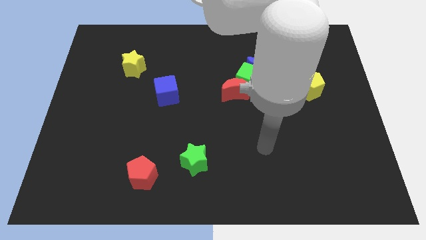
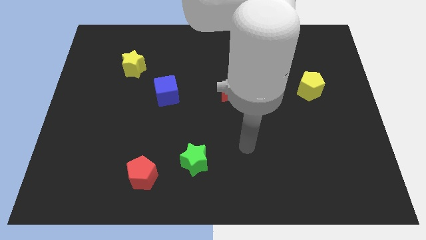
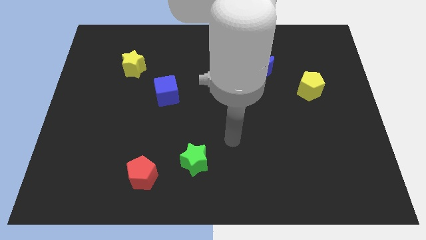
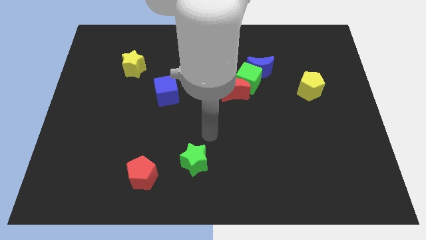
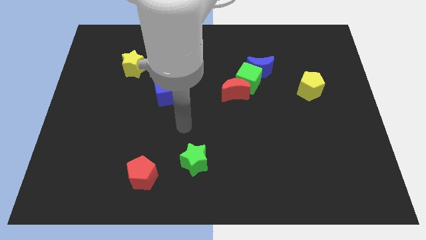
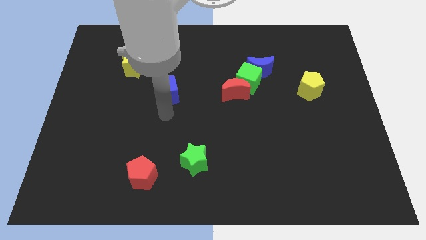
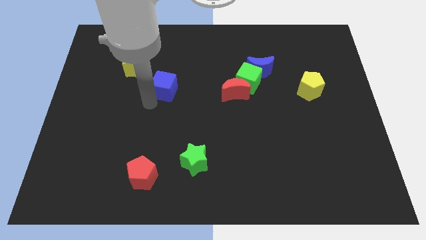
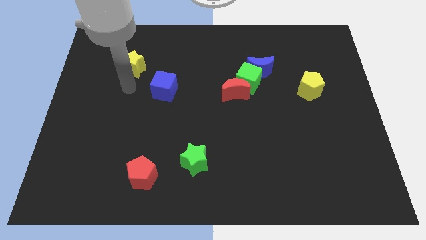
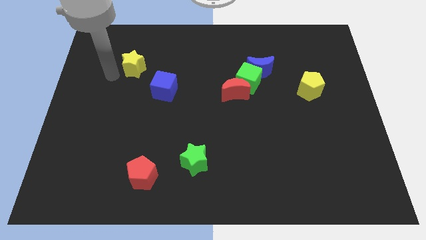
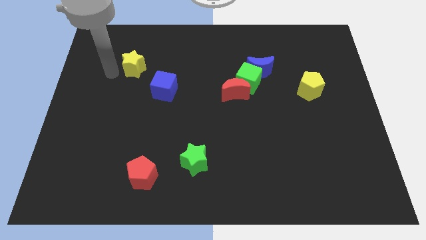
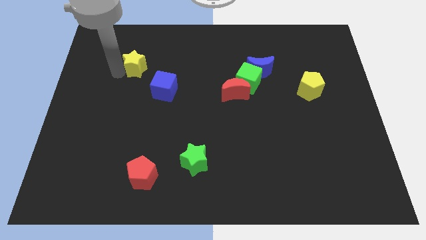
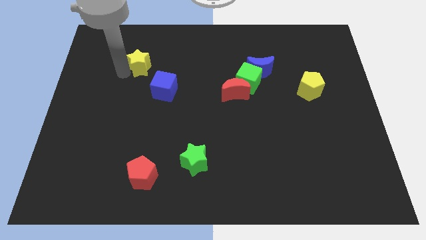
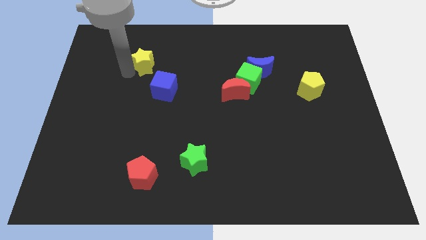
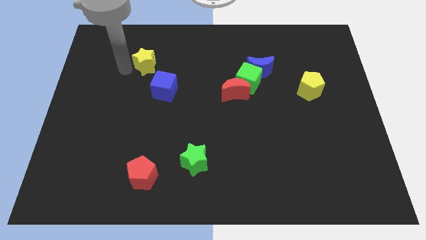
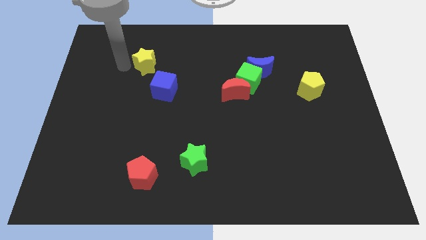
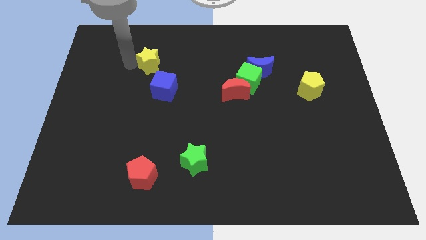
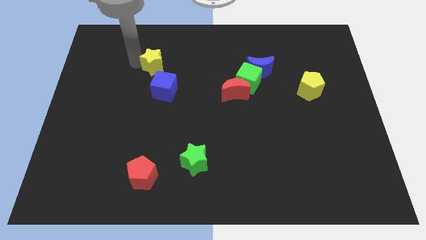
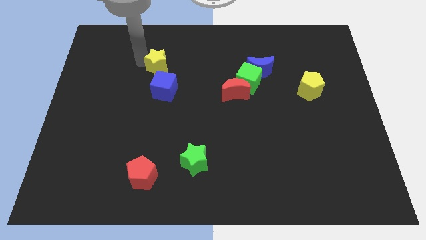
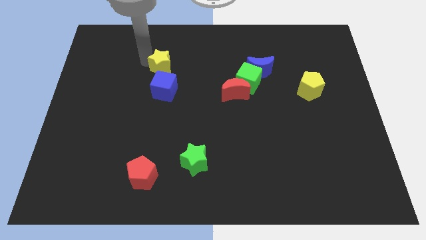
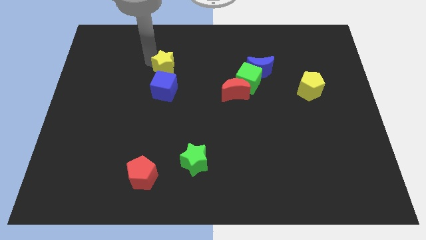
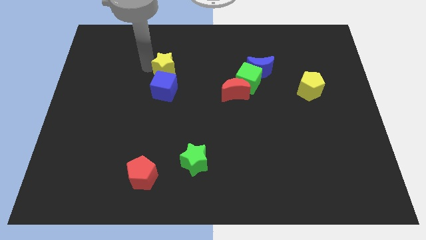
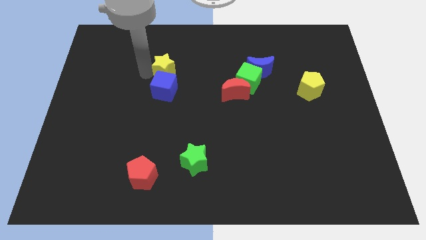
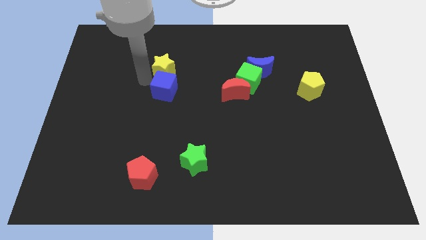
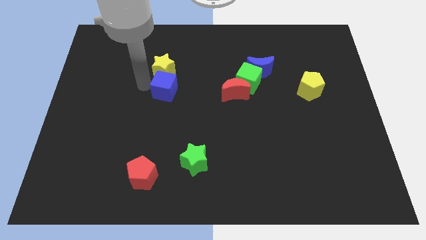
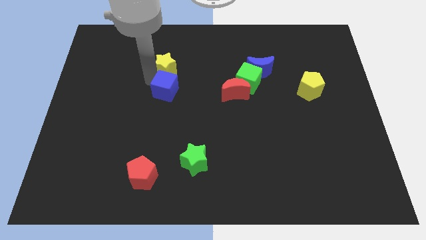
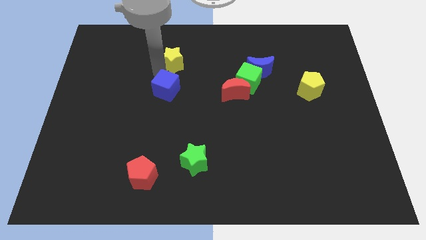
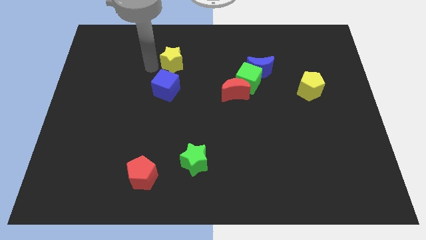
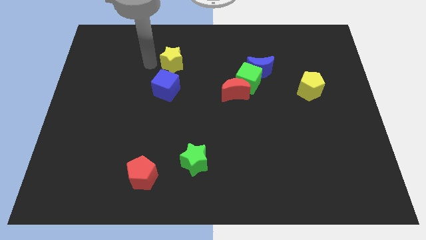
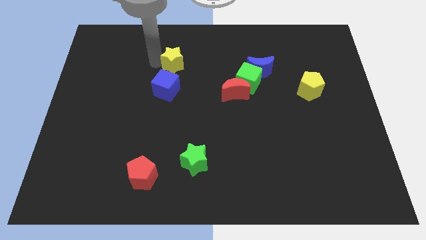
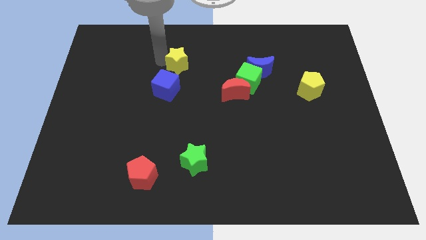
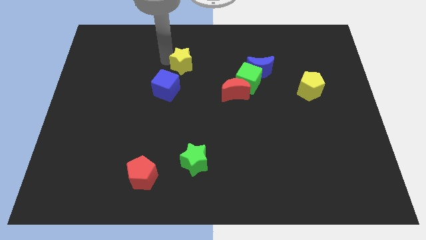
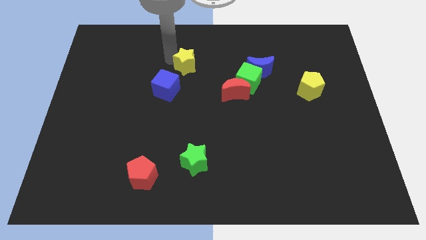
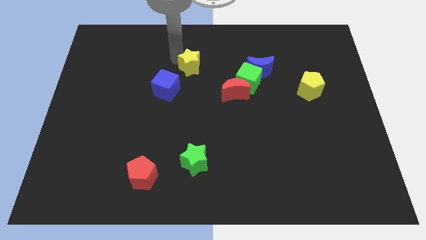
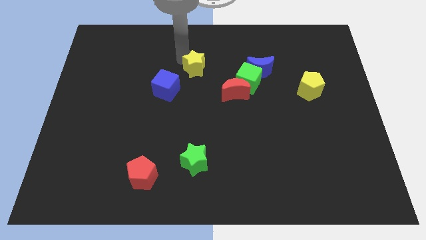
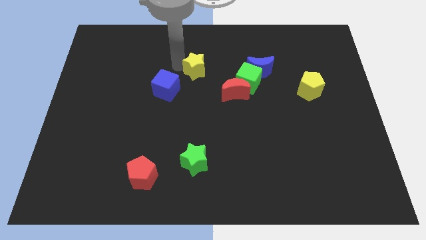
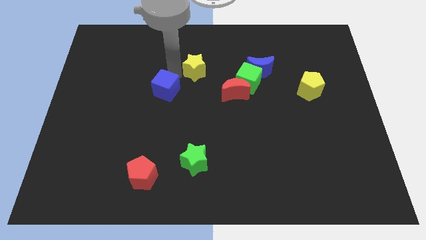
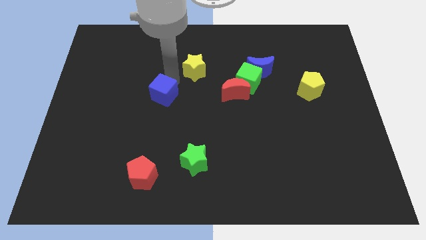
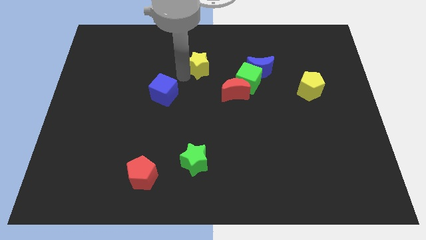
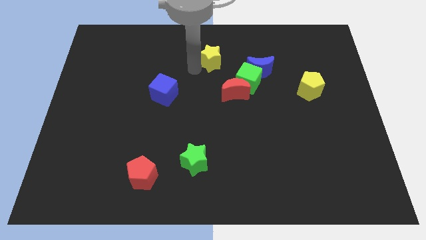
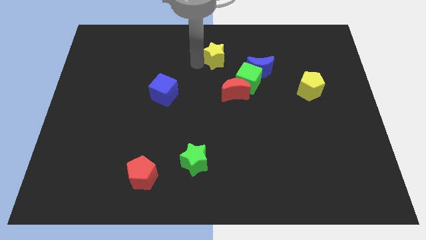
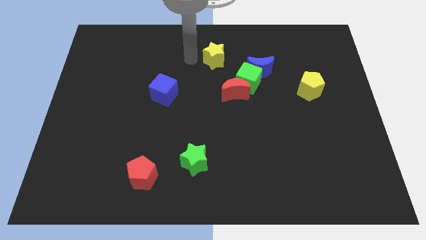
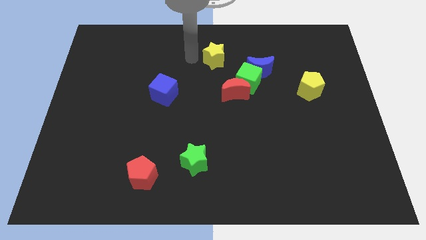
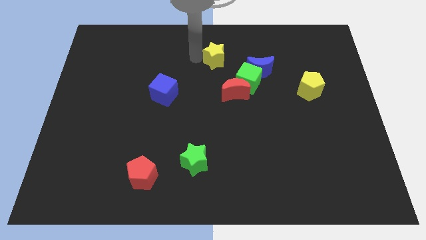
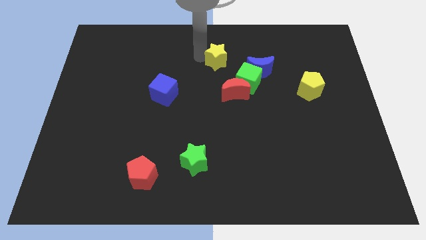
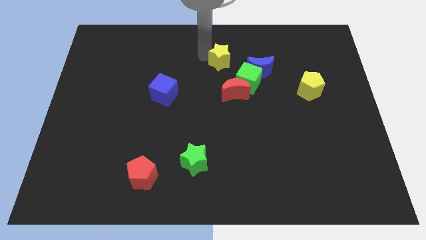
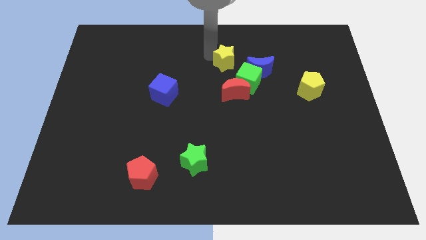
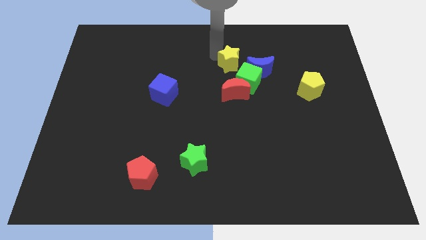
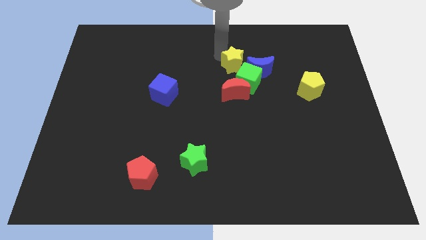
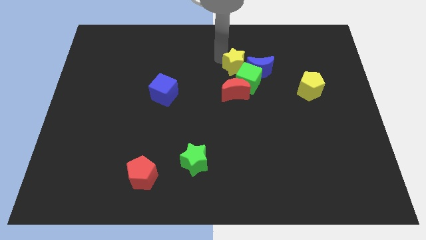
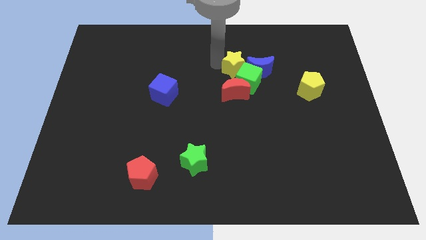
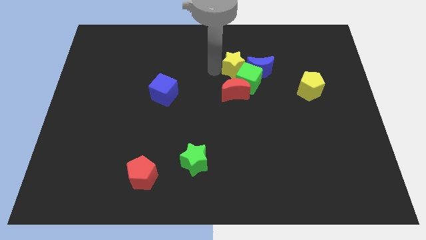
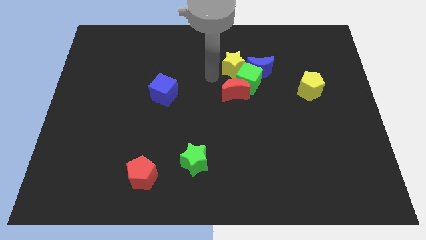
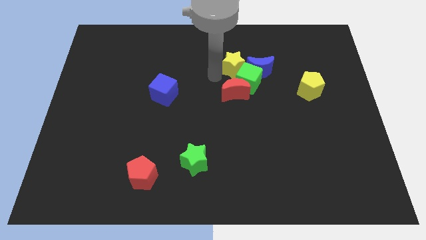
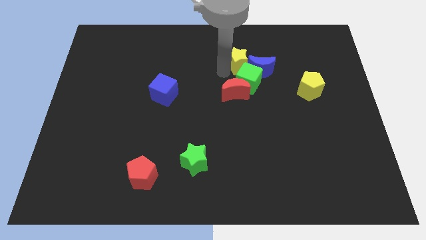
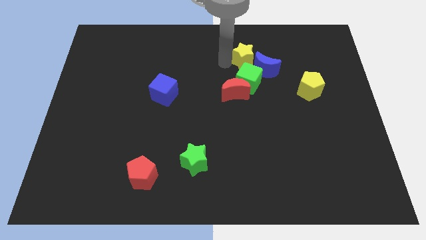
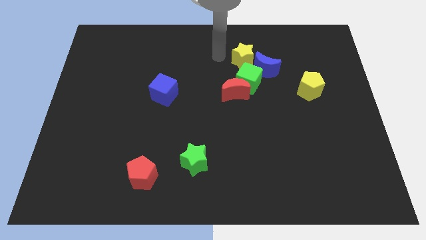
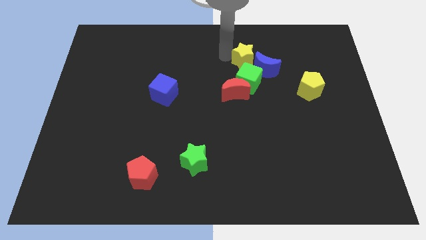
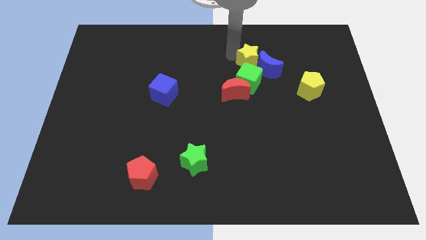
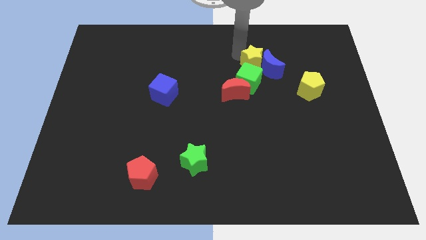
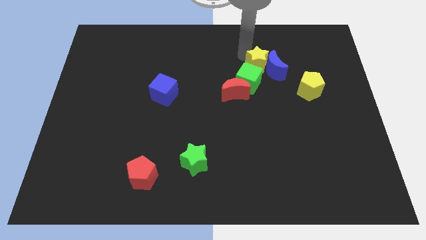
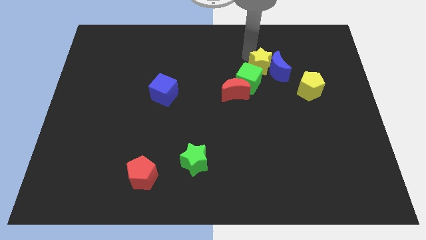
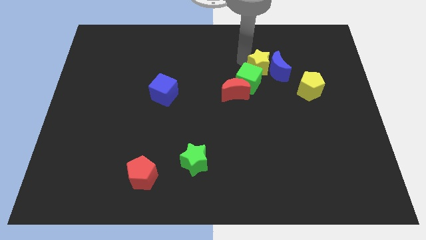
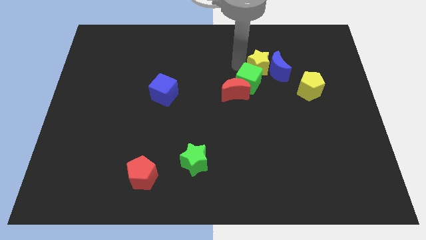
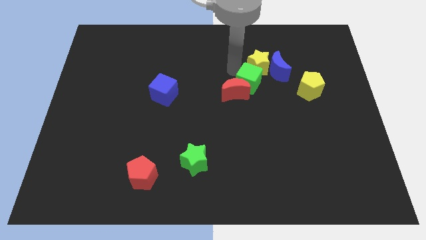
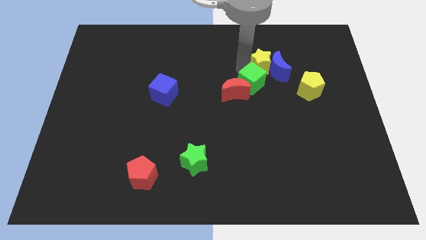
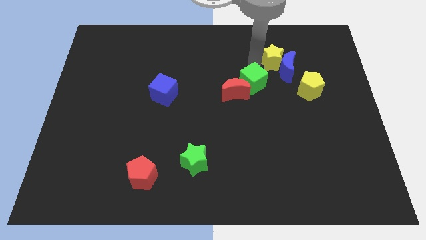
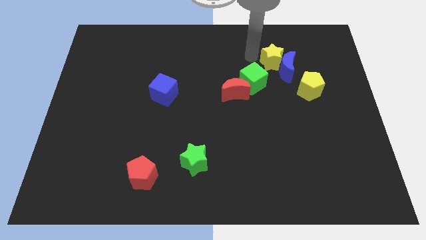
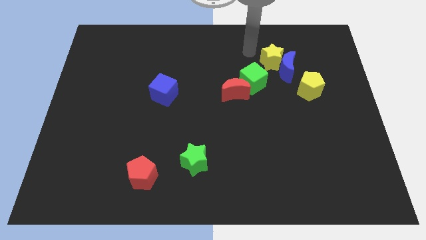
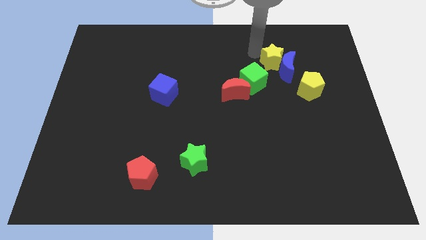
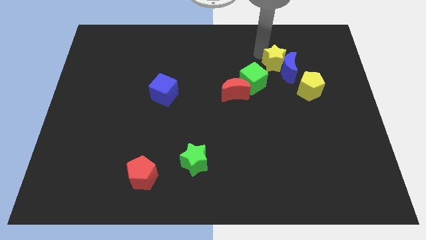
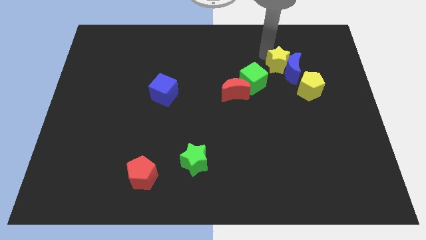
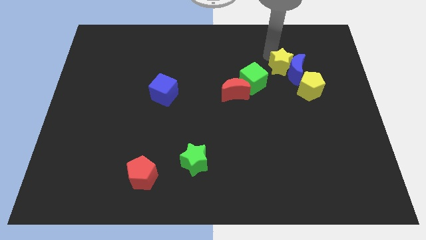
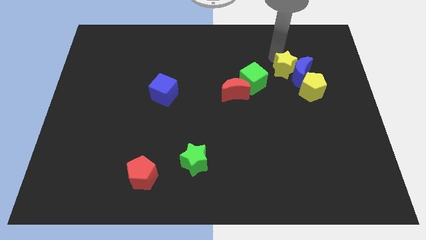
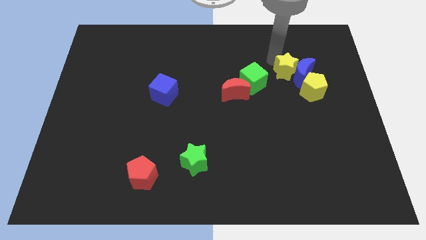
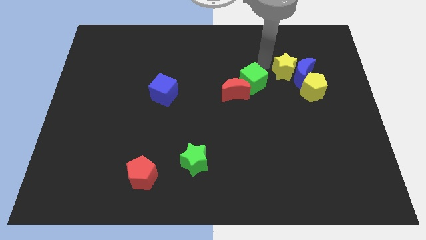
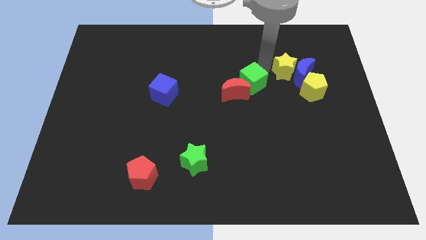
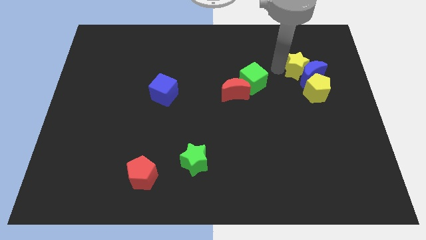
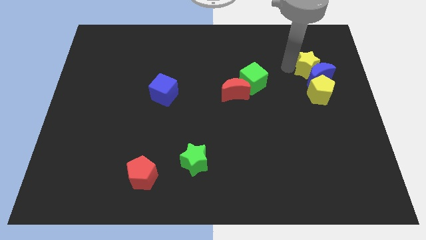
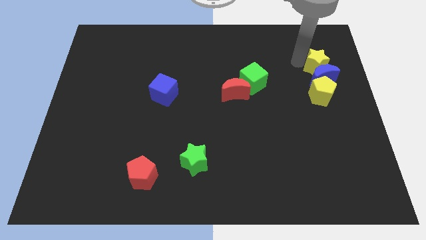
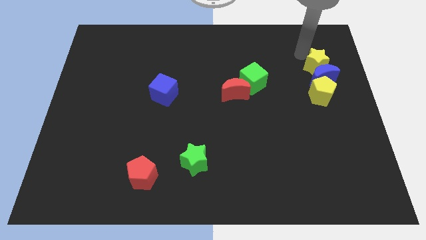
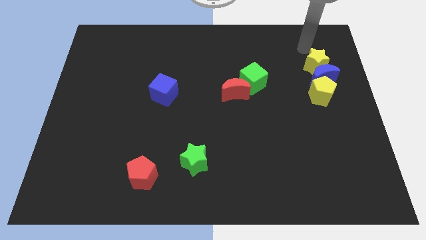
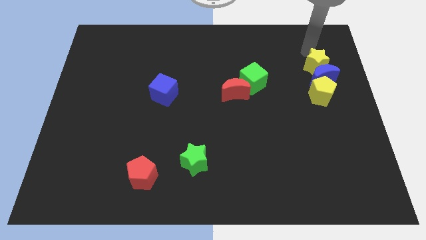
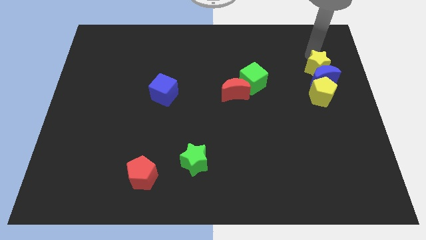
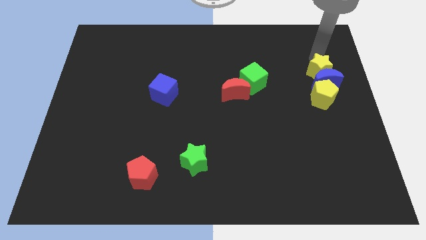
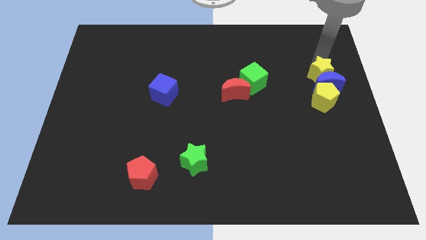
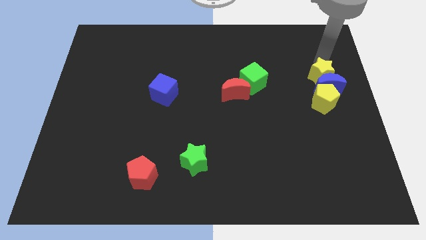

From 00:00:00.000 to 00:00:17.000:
move the yellow star to the right side of the board
